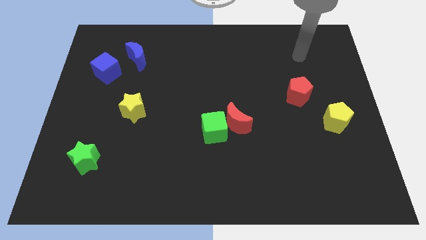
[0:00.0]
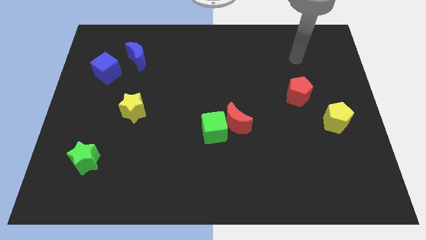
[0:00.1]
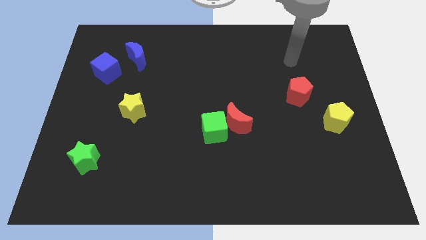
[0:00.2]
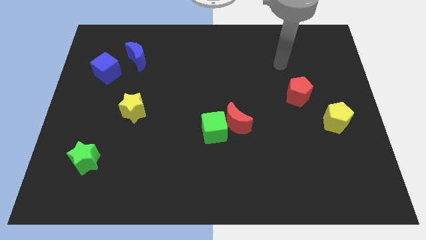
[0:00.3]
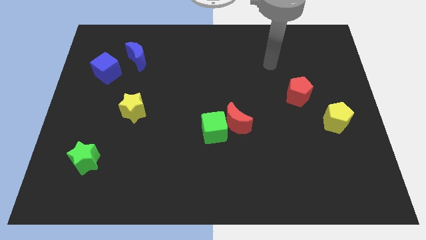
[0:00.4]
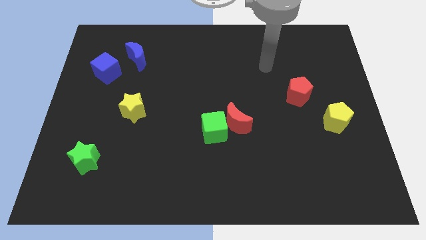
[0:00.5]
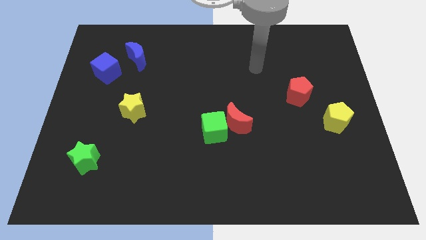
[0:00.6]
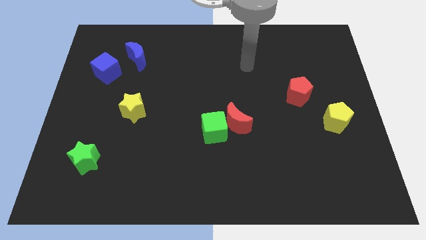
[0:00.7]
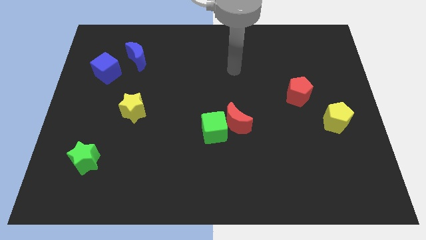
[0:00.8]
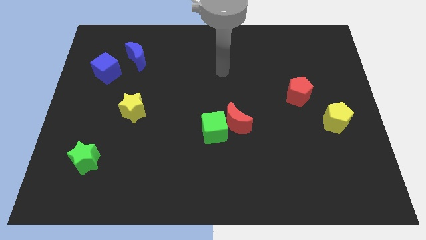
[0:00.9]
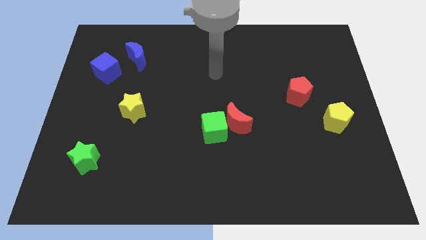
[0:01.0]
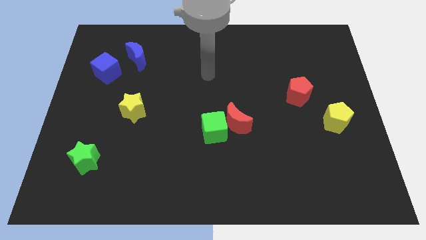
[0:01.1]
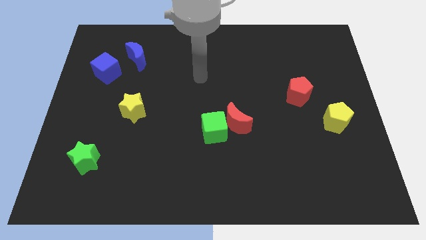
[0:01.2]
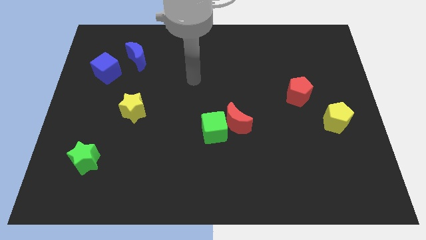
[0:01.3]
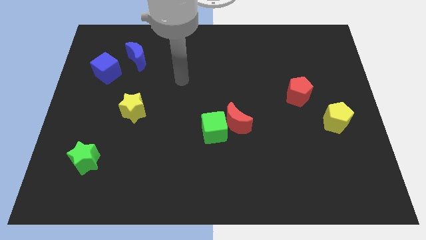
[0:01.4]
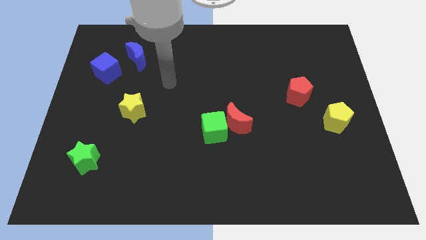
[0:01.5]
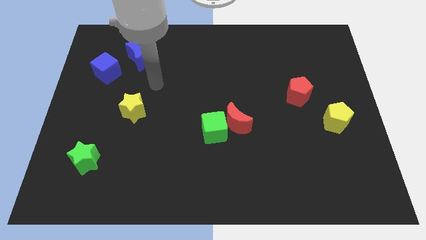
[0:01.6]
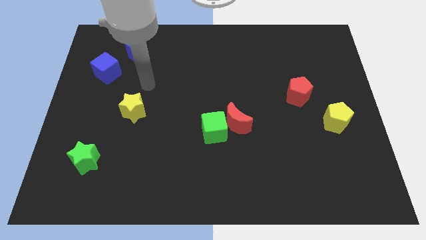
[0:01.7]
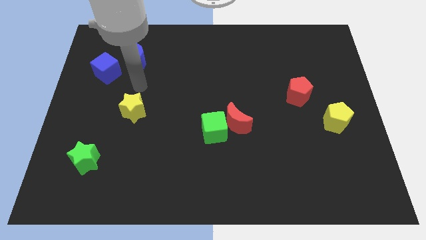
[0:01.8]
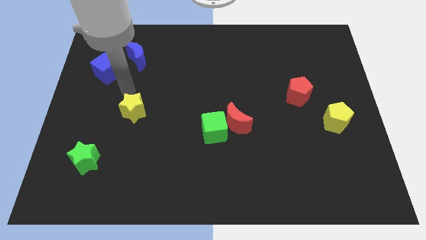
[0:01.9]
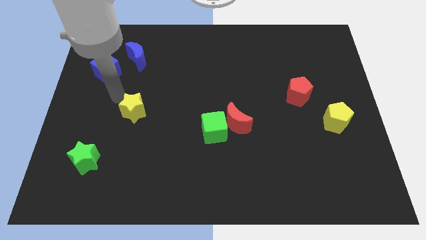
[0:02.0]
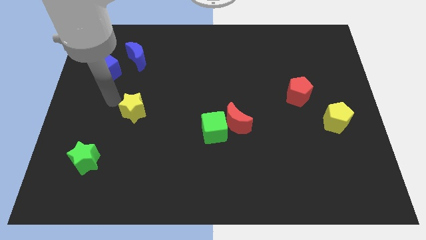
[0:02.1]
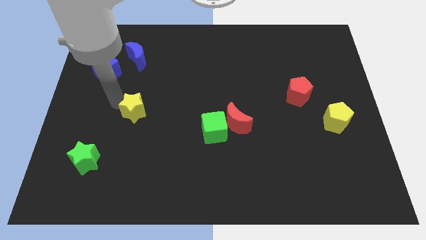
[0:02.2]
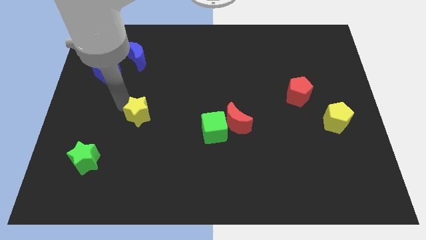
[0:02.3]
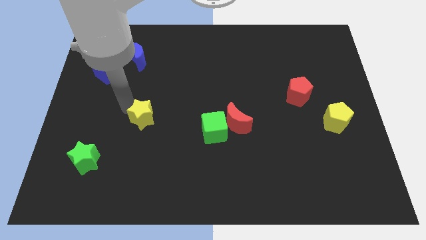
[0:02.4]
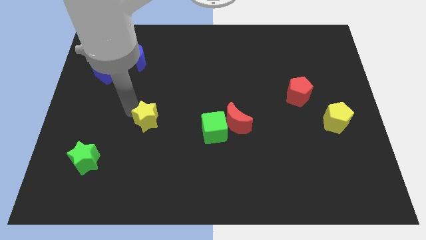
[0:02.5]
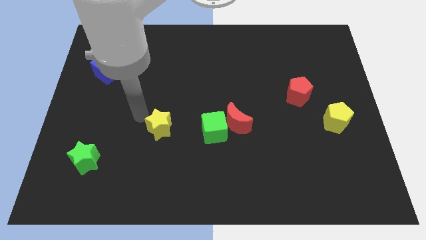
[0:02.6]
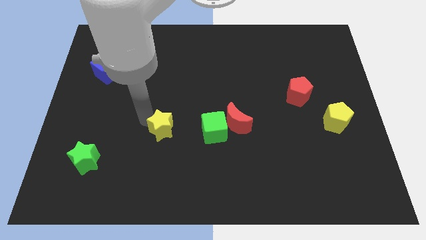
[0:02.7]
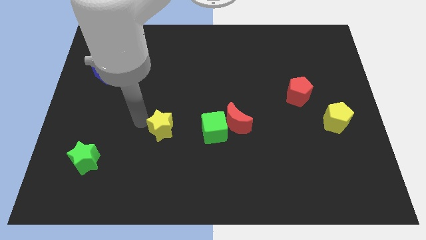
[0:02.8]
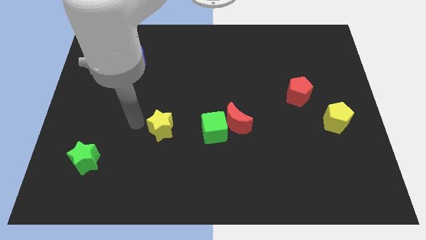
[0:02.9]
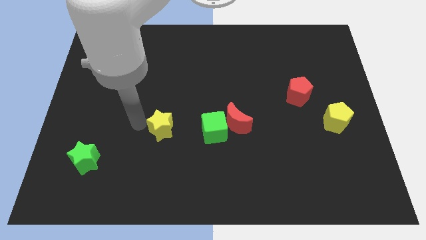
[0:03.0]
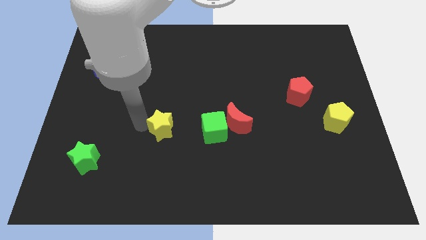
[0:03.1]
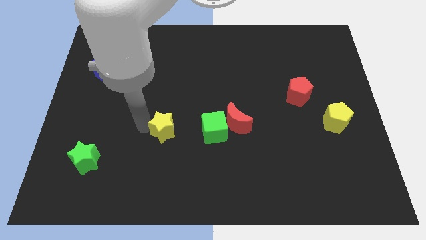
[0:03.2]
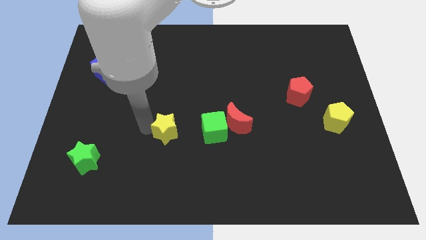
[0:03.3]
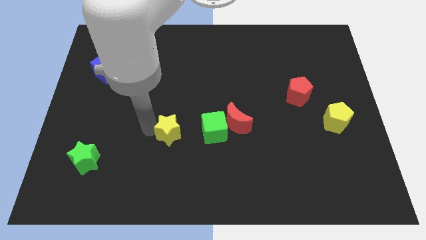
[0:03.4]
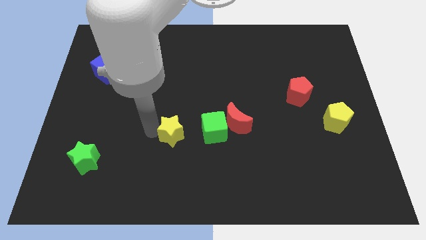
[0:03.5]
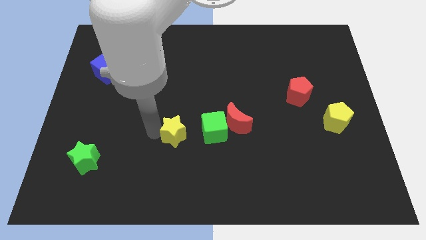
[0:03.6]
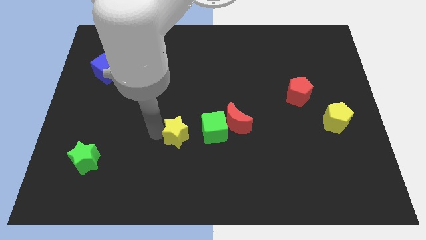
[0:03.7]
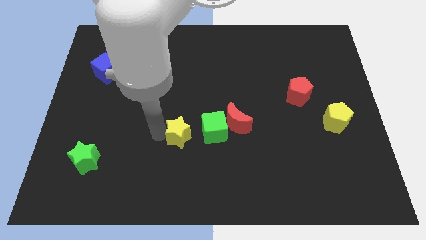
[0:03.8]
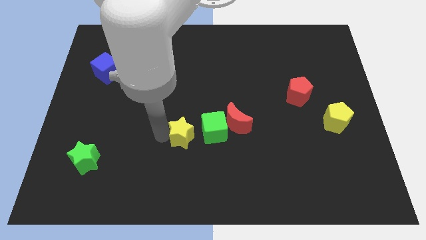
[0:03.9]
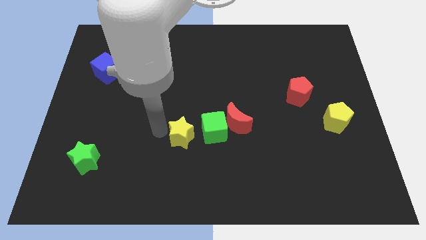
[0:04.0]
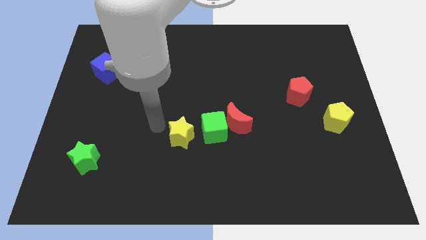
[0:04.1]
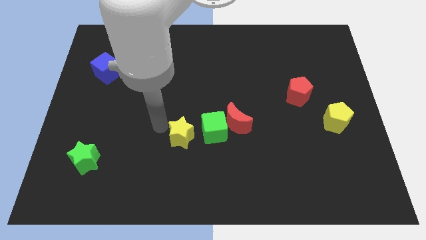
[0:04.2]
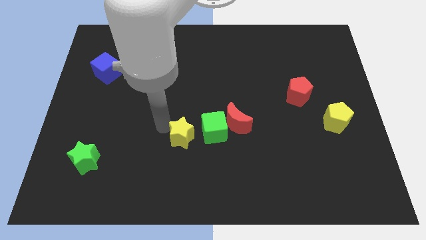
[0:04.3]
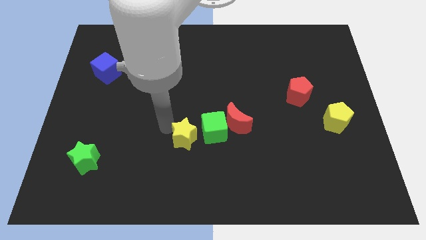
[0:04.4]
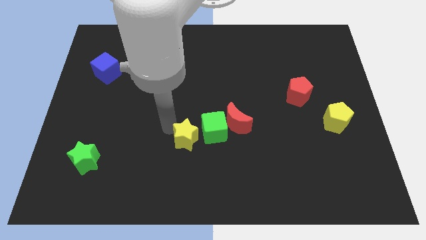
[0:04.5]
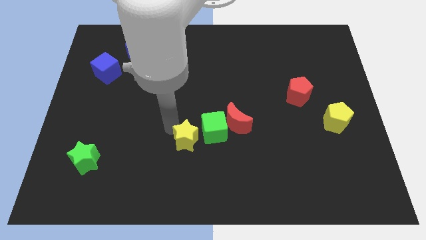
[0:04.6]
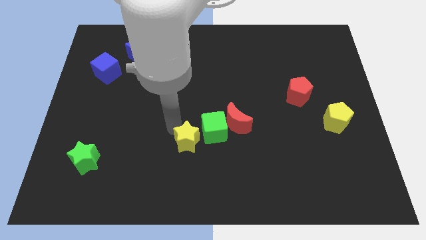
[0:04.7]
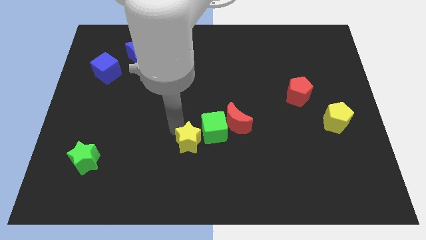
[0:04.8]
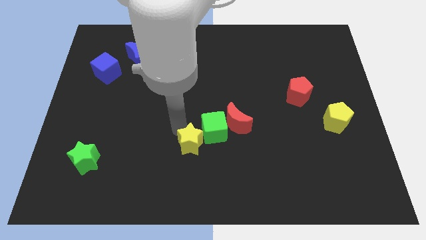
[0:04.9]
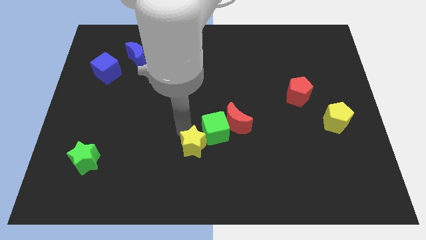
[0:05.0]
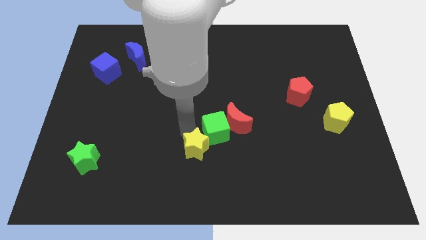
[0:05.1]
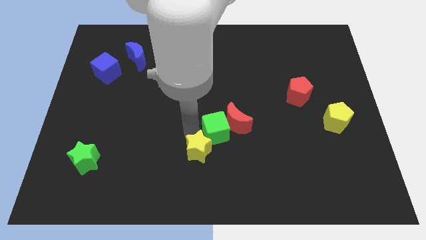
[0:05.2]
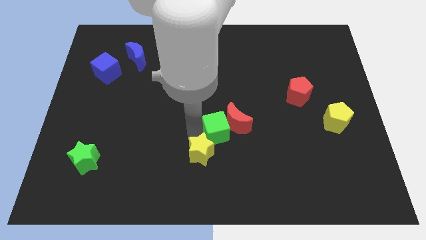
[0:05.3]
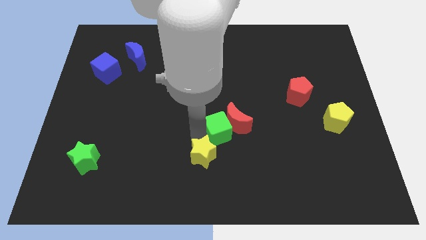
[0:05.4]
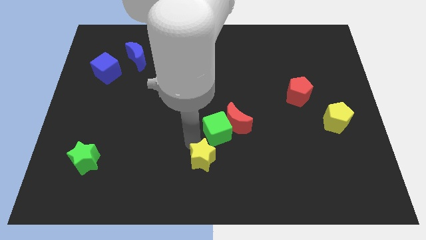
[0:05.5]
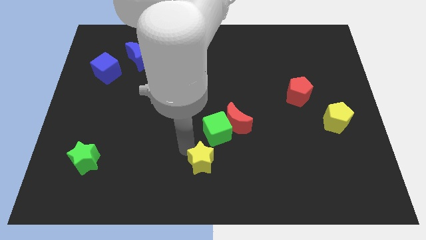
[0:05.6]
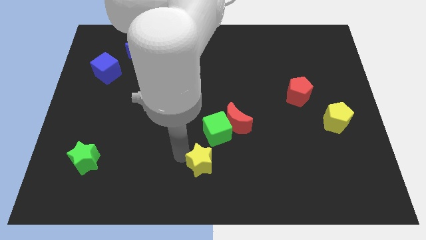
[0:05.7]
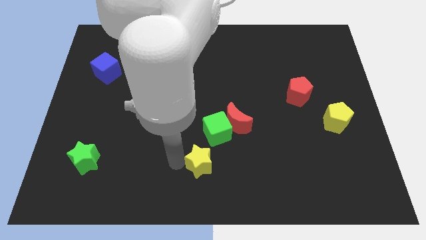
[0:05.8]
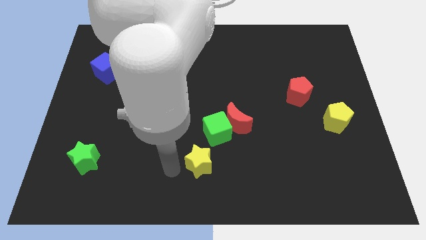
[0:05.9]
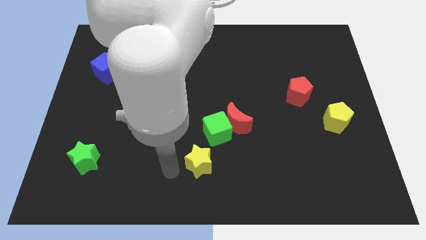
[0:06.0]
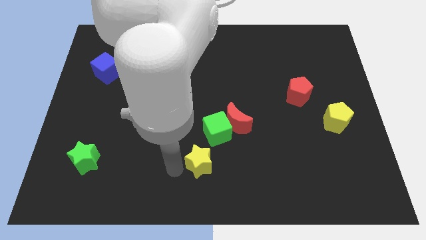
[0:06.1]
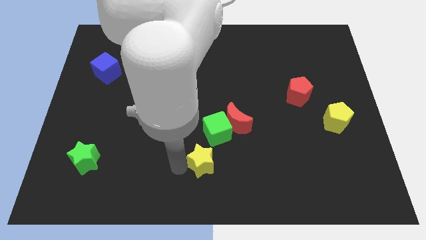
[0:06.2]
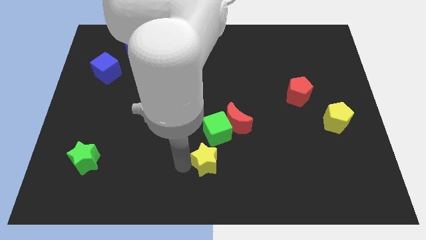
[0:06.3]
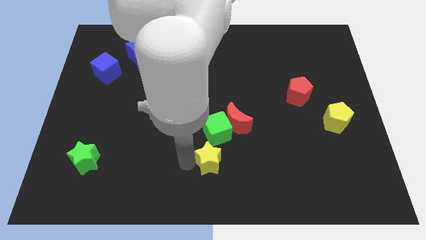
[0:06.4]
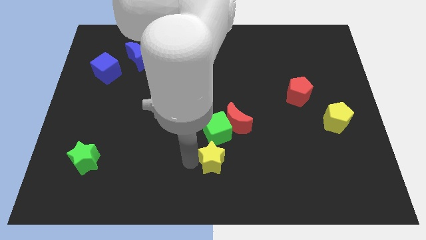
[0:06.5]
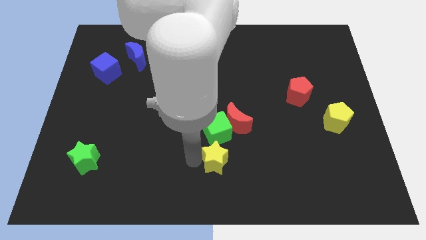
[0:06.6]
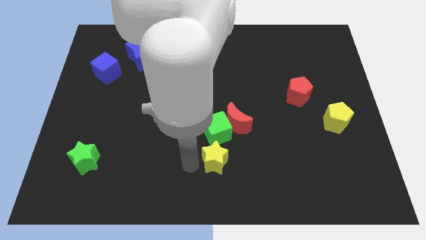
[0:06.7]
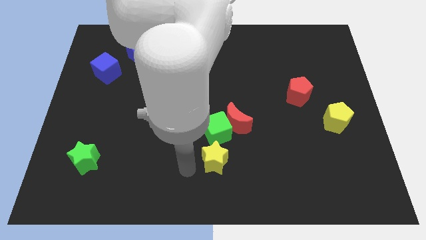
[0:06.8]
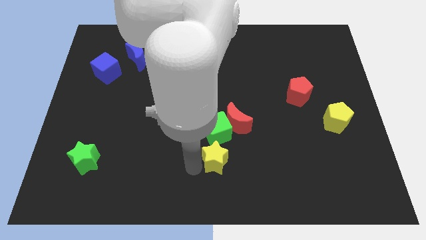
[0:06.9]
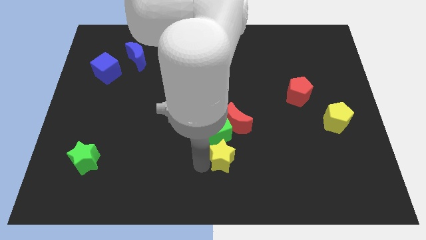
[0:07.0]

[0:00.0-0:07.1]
slide the yellow star diagonally down and to the right of the green cube
